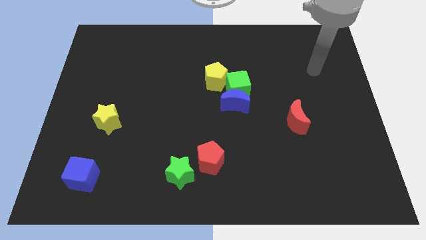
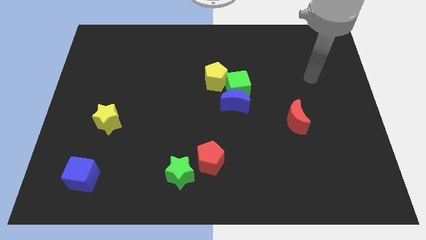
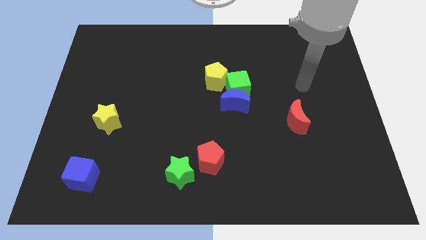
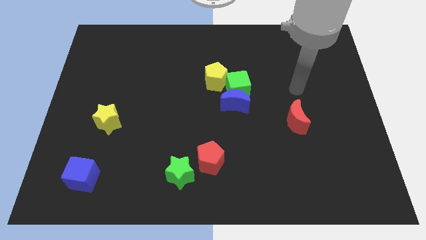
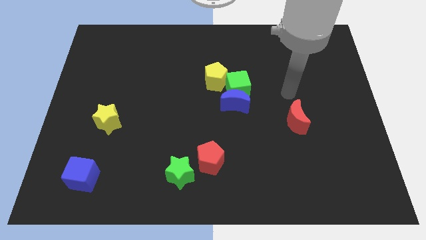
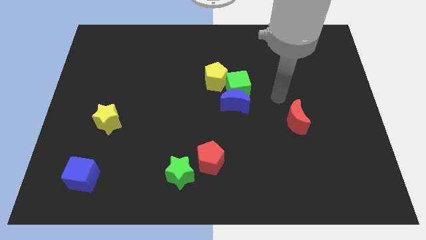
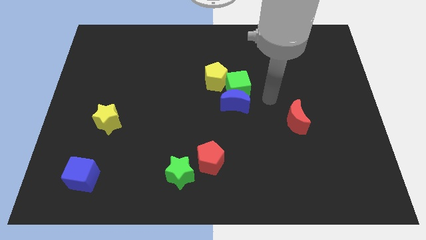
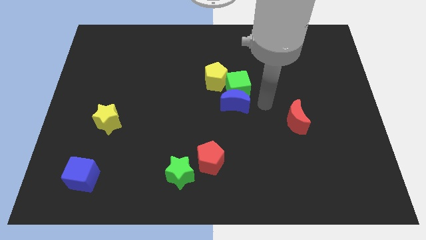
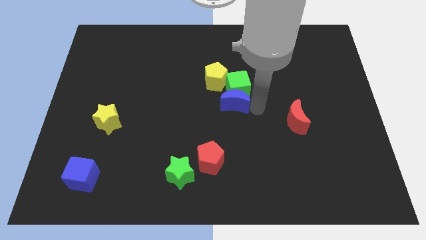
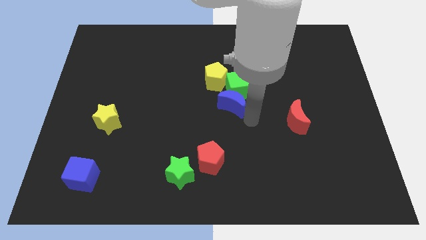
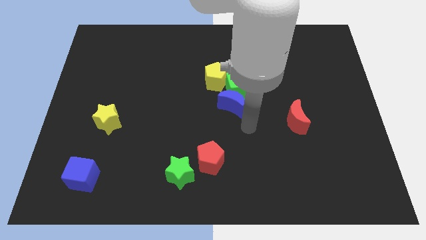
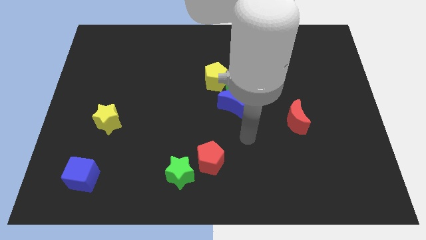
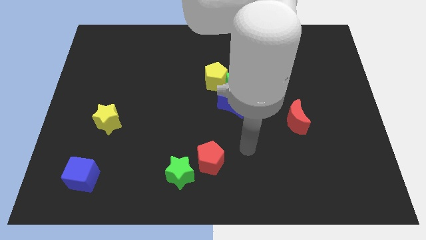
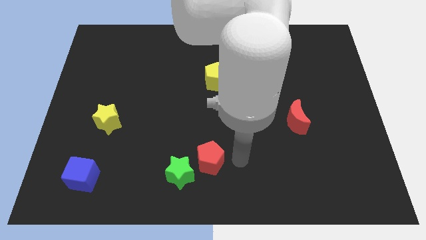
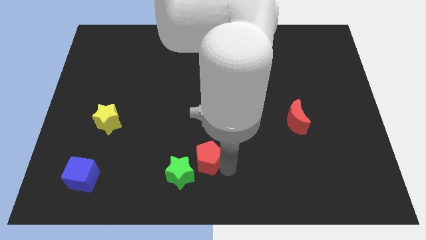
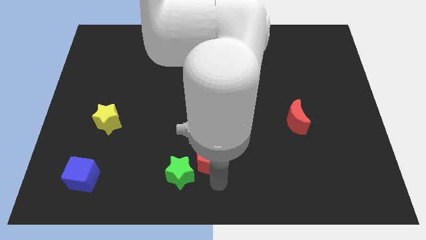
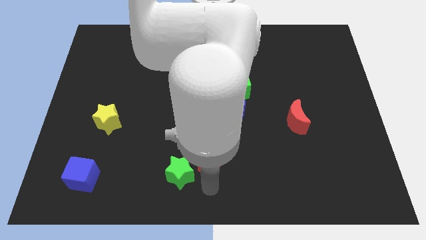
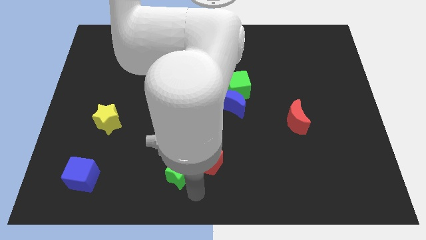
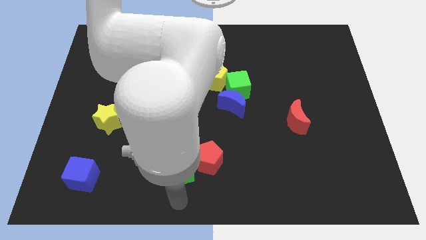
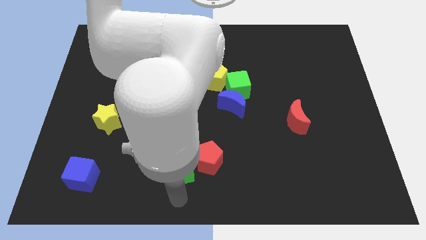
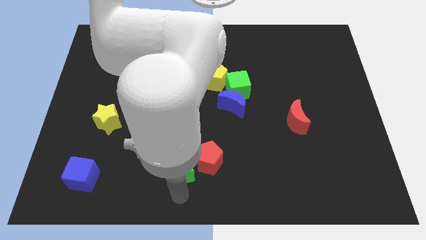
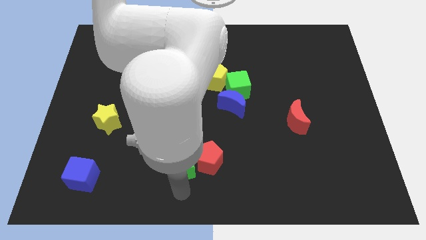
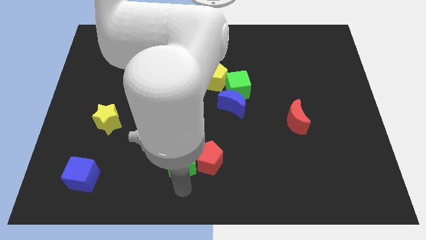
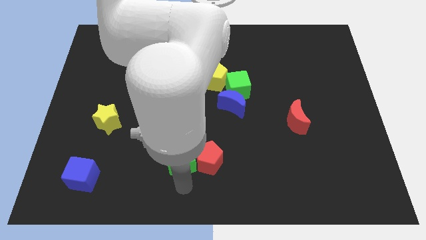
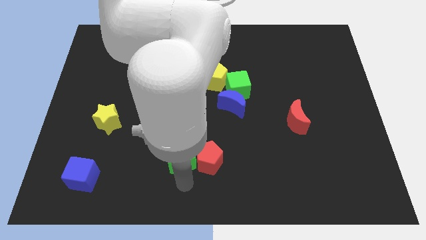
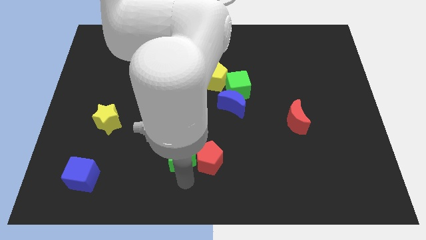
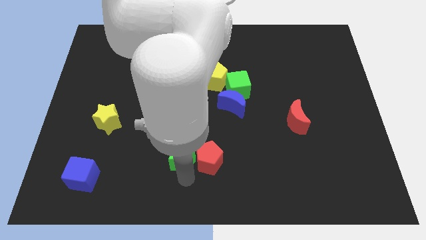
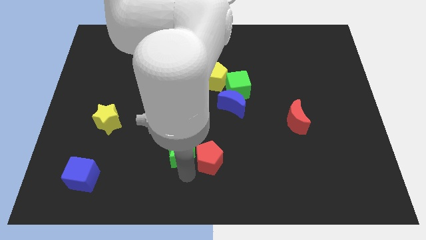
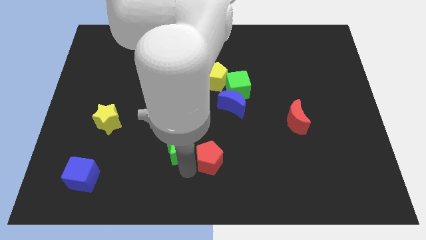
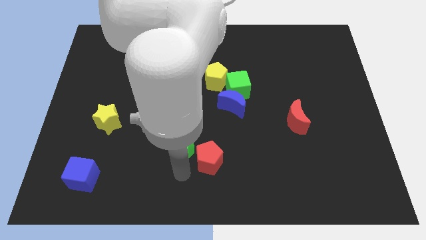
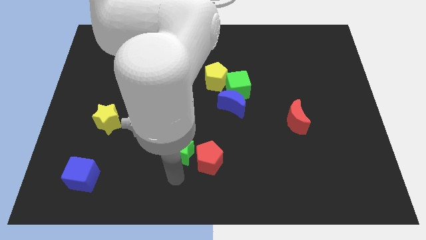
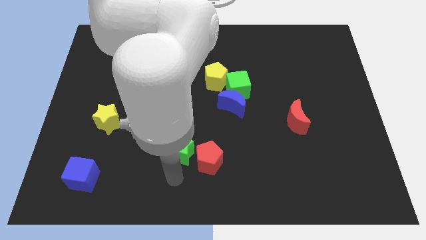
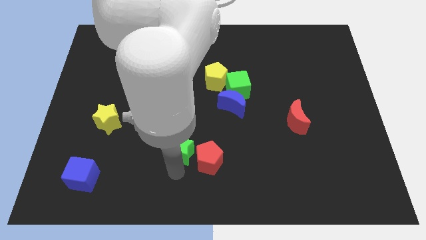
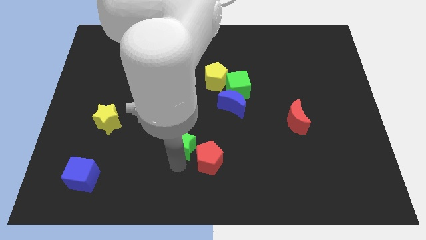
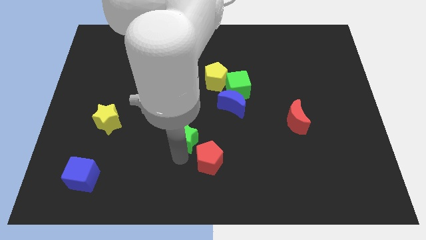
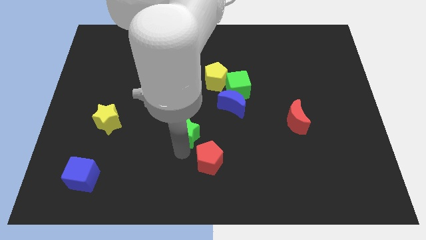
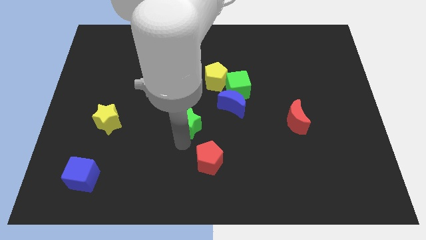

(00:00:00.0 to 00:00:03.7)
slide the green star upwards and to the right a bit

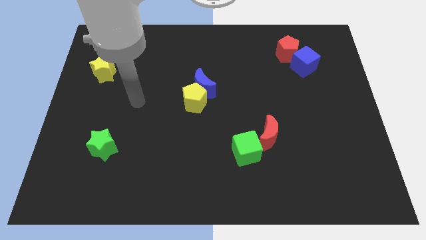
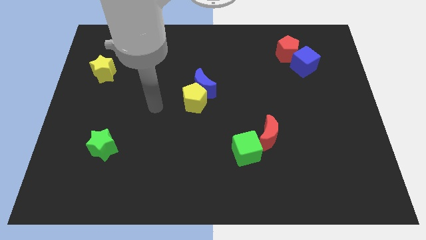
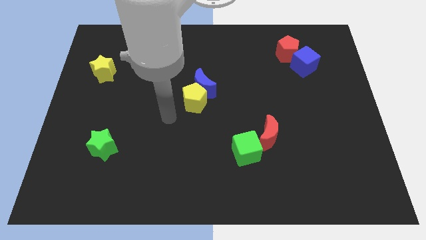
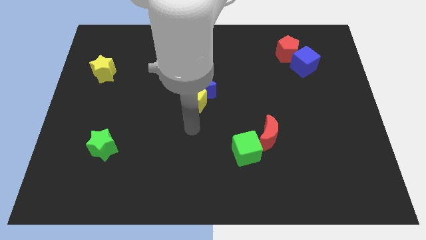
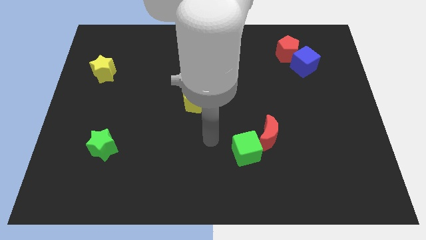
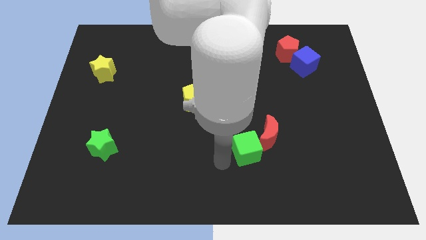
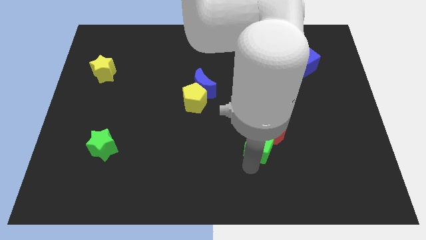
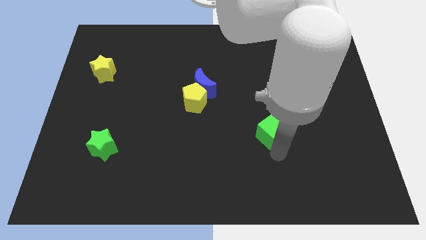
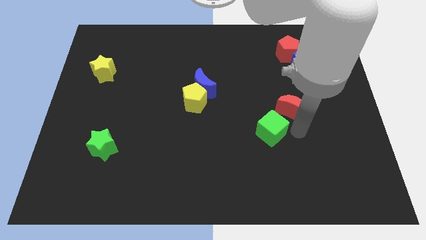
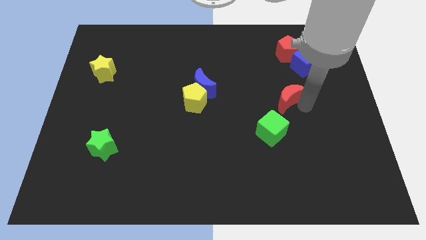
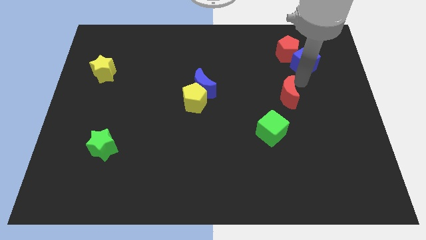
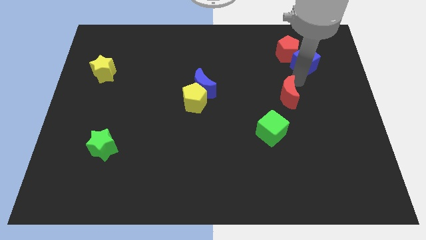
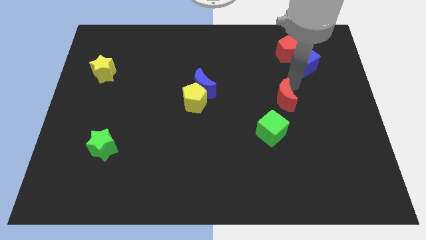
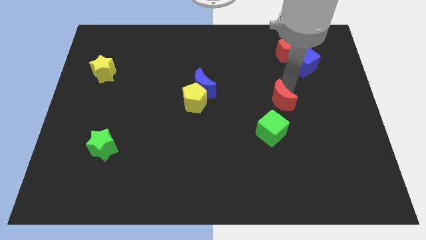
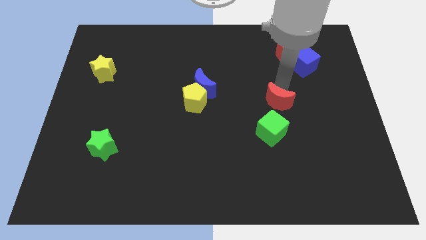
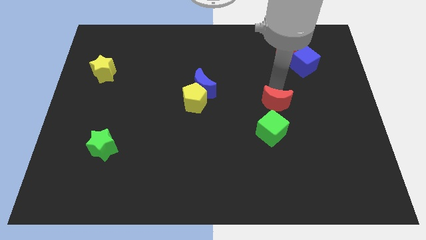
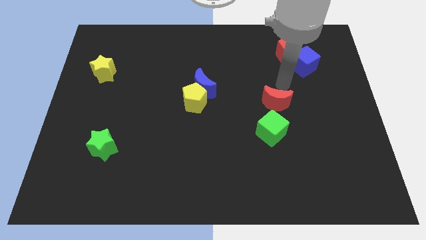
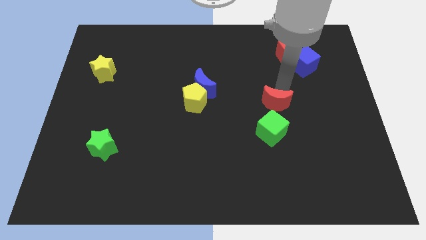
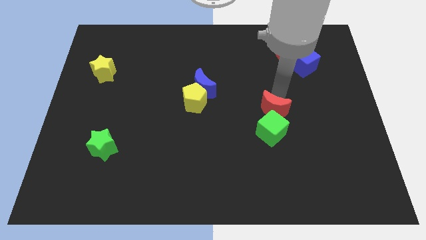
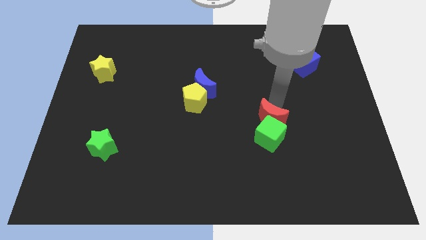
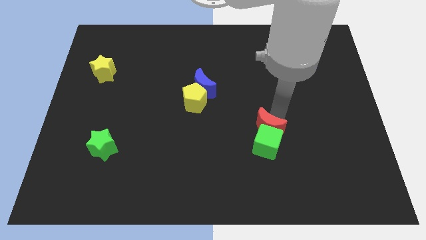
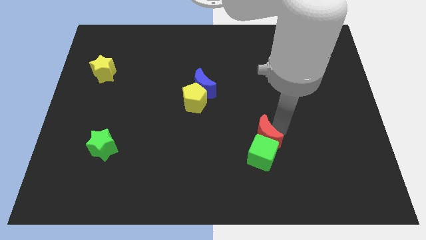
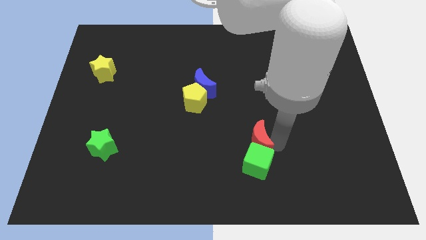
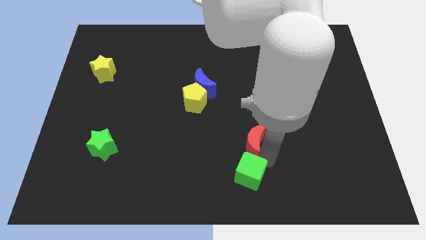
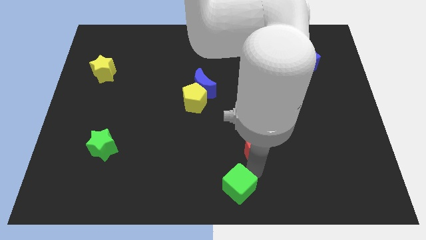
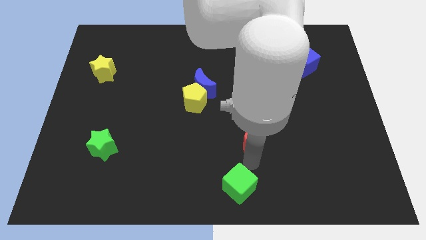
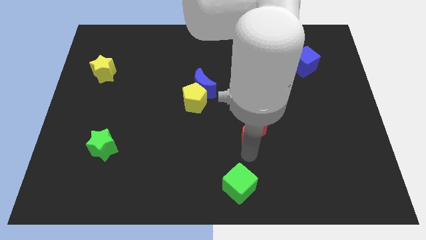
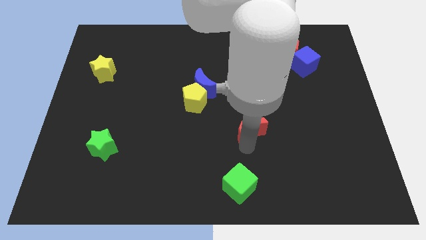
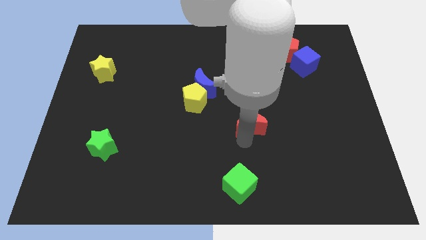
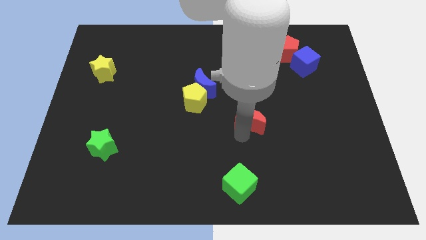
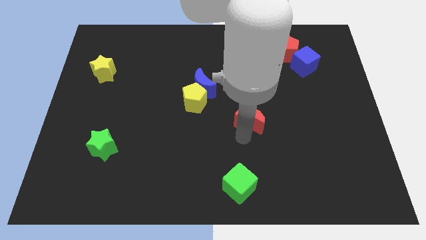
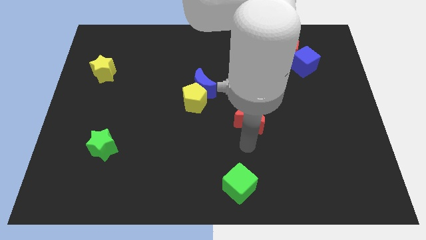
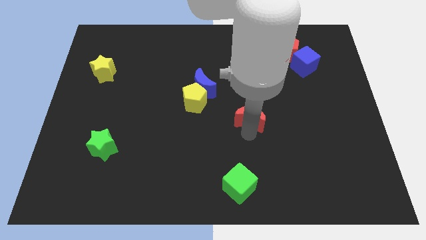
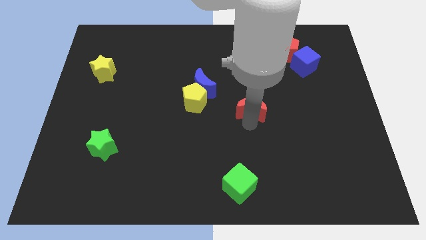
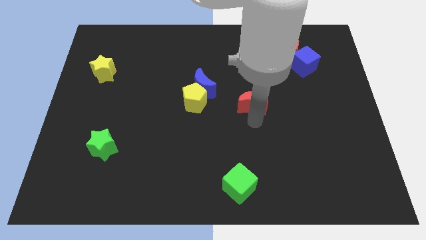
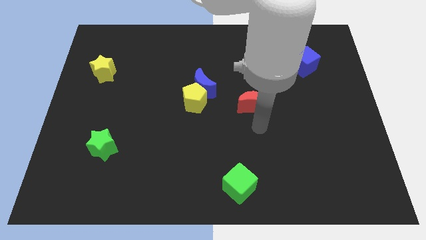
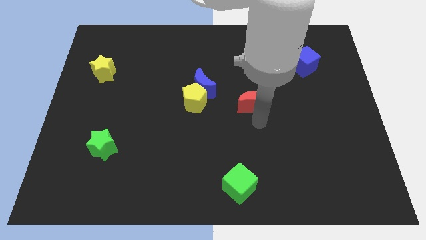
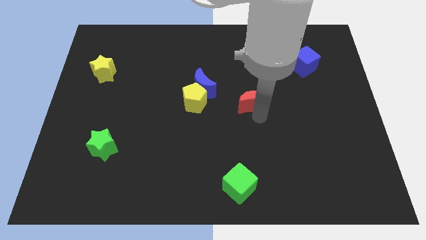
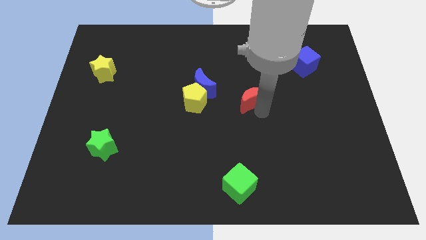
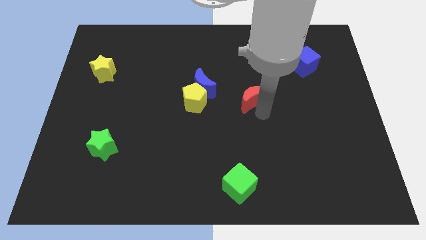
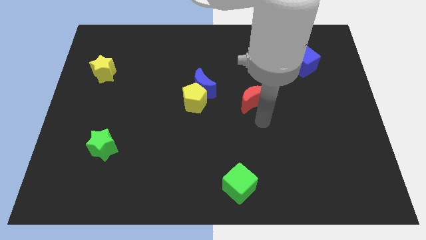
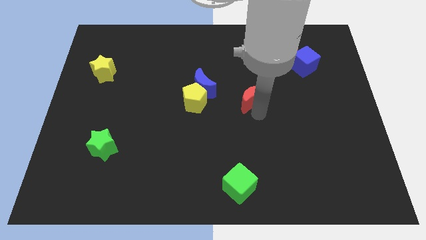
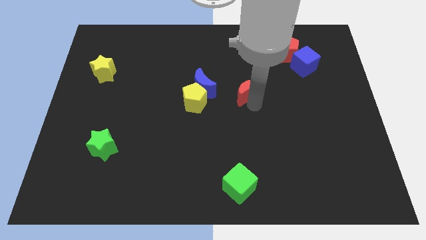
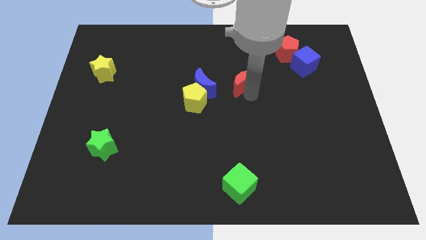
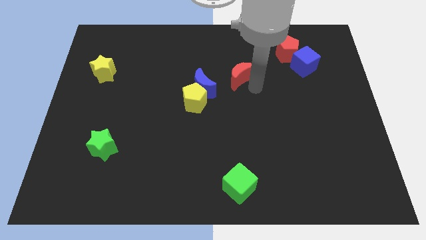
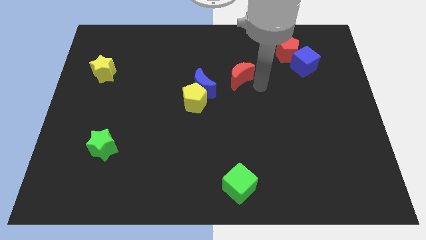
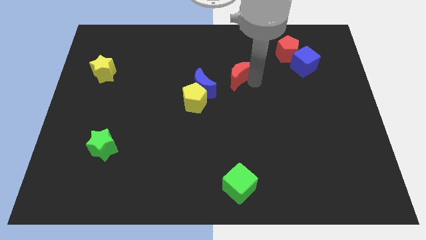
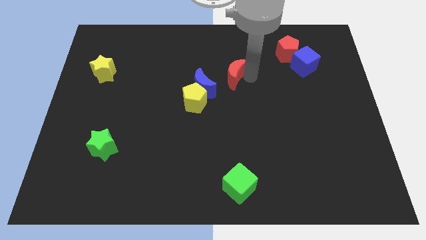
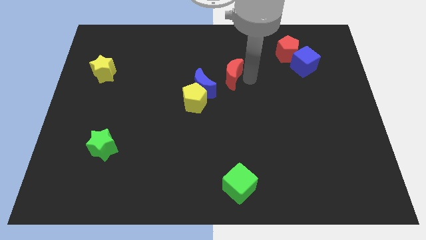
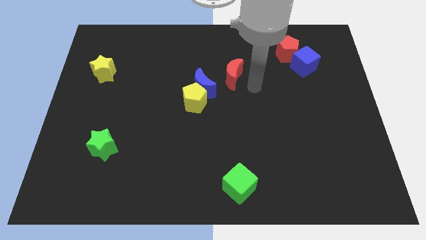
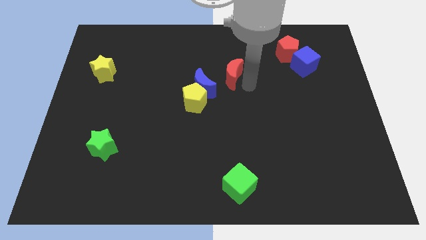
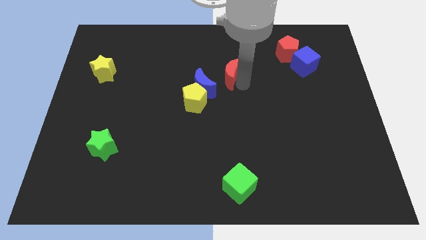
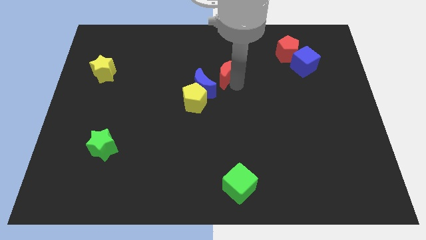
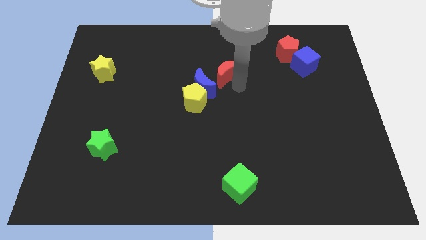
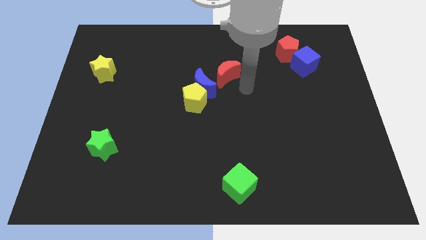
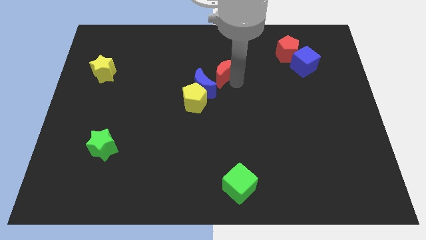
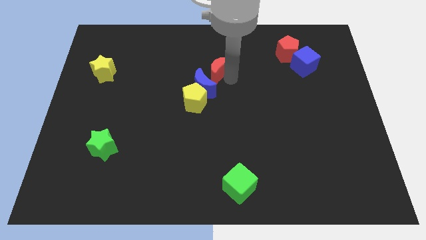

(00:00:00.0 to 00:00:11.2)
push the red moon diagonally upwards and to the left
